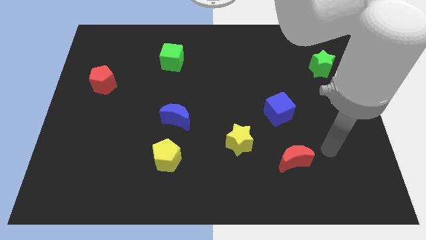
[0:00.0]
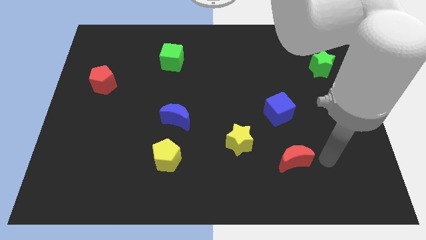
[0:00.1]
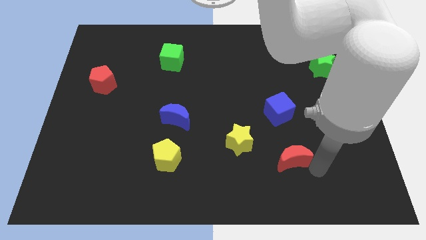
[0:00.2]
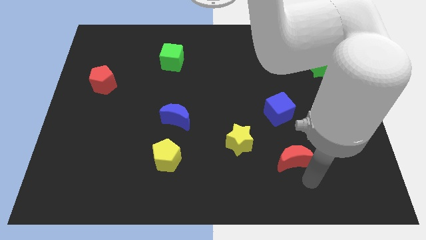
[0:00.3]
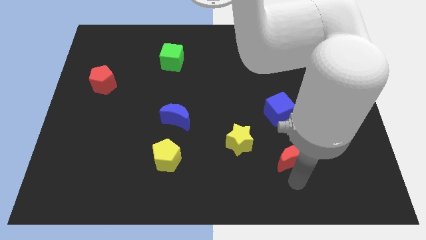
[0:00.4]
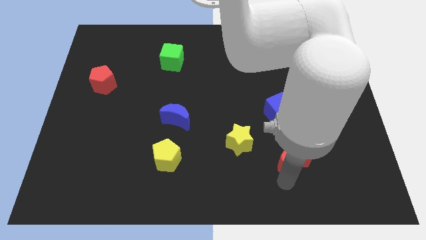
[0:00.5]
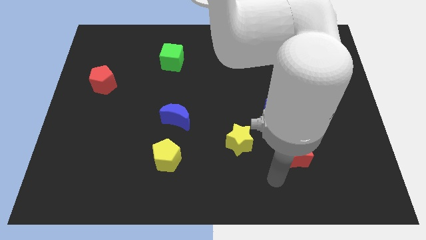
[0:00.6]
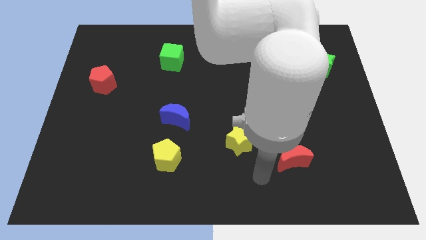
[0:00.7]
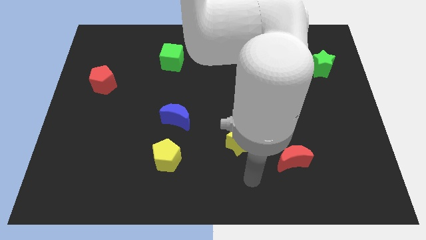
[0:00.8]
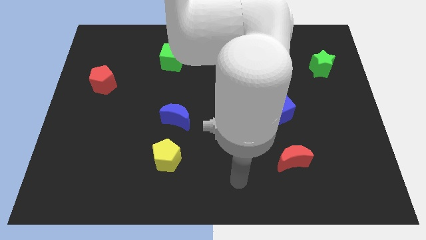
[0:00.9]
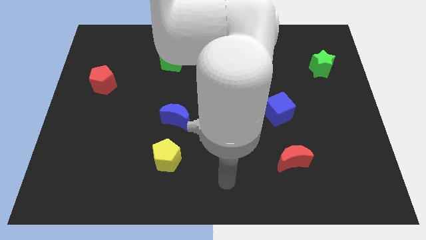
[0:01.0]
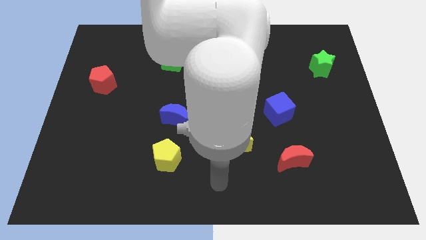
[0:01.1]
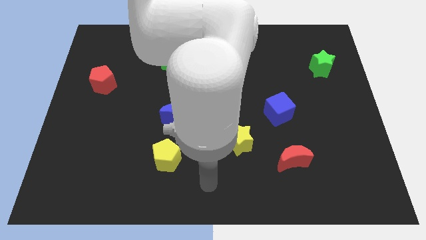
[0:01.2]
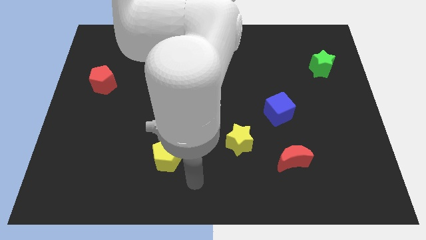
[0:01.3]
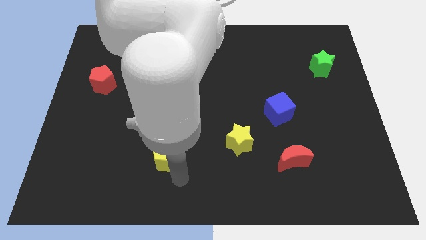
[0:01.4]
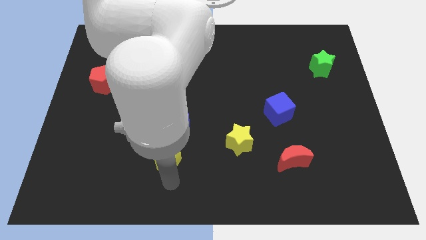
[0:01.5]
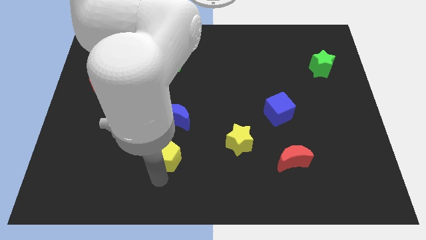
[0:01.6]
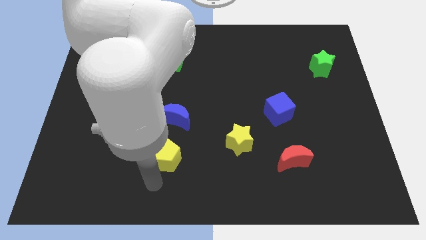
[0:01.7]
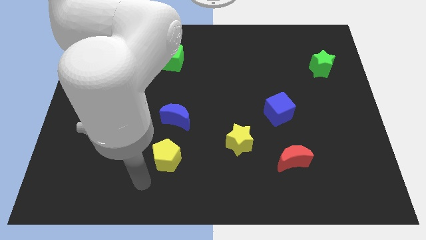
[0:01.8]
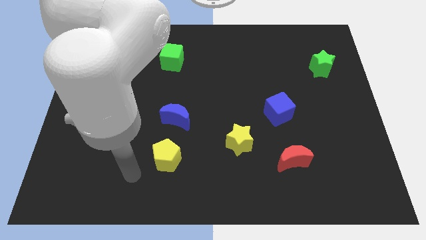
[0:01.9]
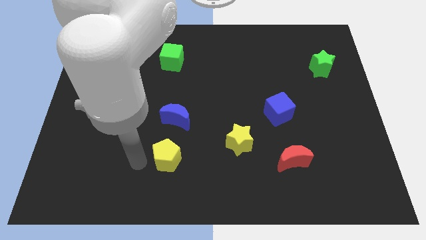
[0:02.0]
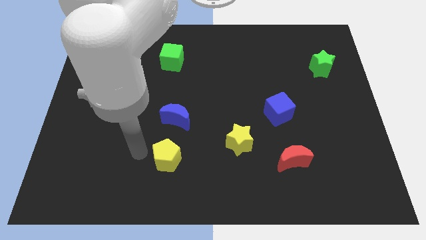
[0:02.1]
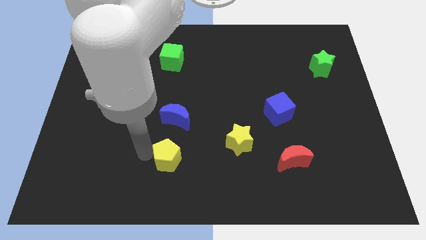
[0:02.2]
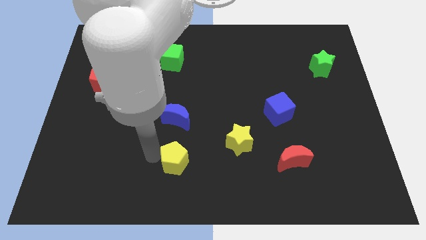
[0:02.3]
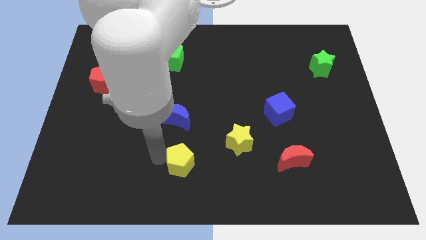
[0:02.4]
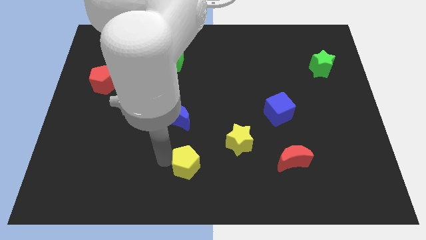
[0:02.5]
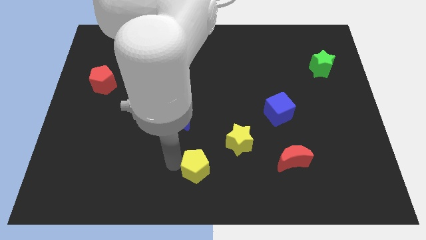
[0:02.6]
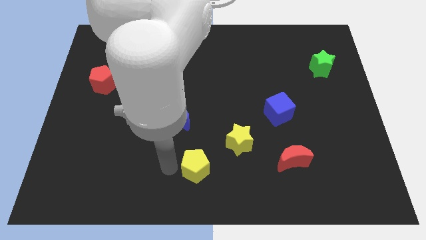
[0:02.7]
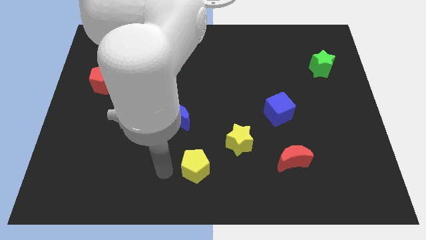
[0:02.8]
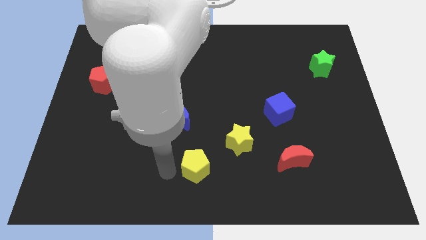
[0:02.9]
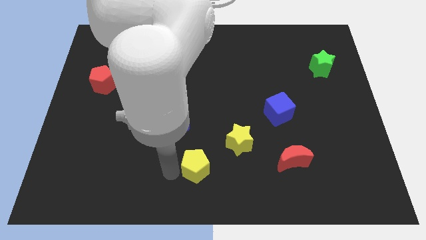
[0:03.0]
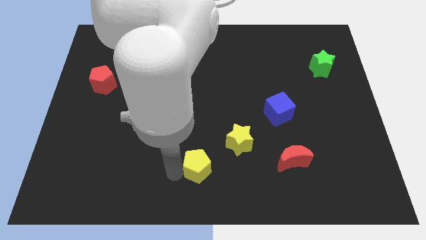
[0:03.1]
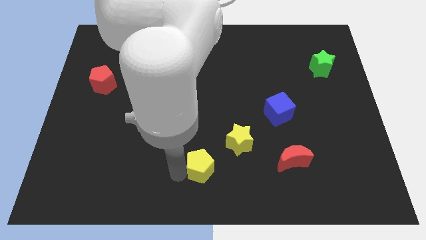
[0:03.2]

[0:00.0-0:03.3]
slide the yellow pentagon right a bit

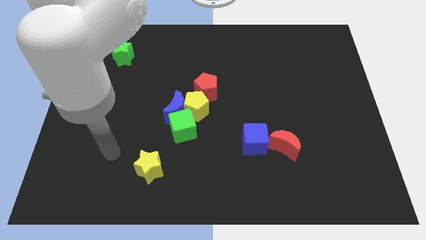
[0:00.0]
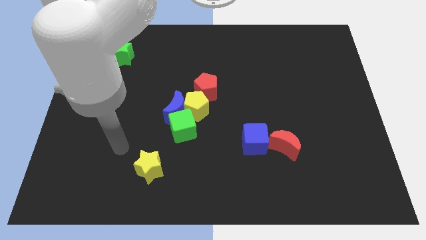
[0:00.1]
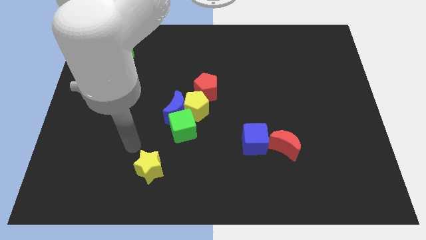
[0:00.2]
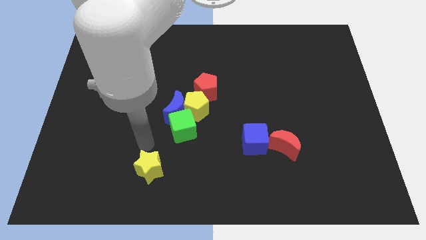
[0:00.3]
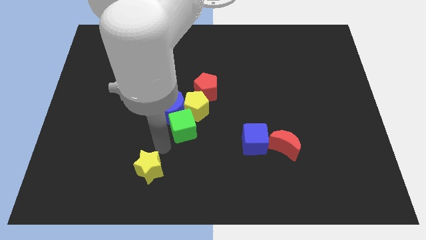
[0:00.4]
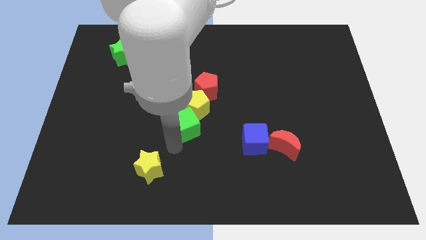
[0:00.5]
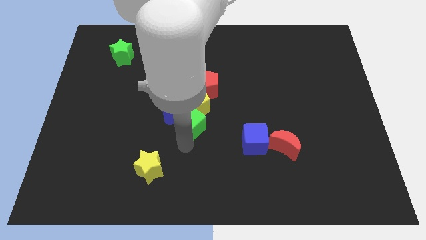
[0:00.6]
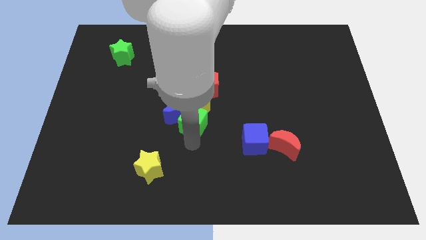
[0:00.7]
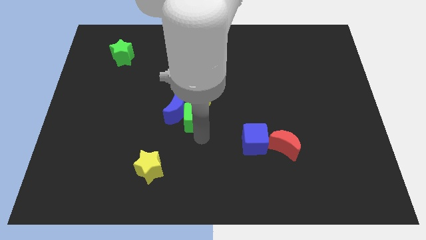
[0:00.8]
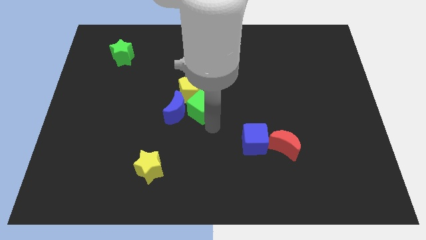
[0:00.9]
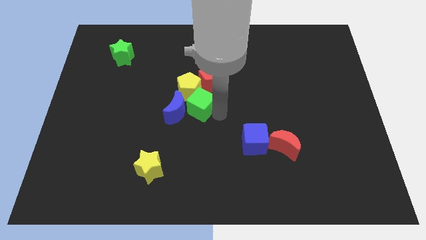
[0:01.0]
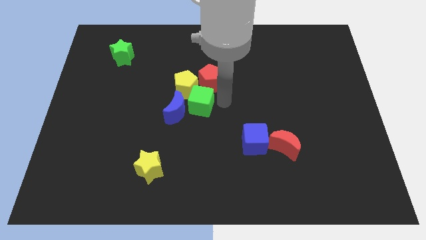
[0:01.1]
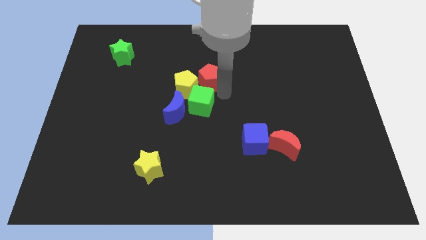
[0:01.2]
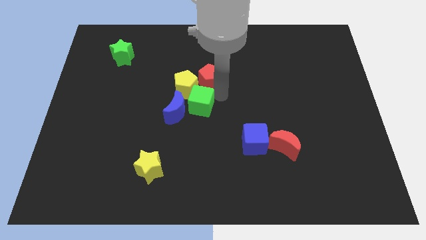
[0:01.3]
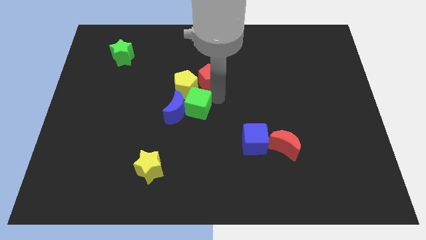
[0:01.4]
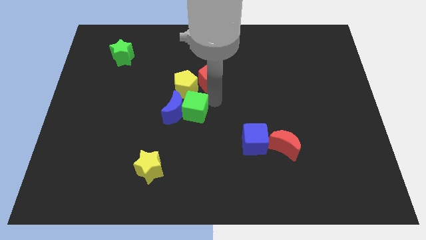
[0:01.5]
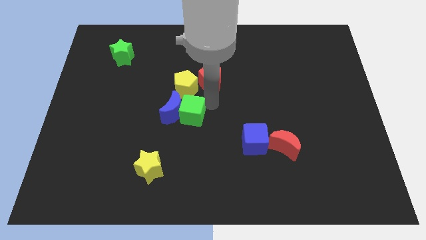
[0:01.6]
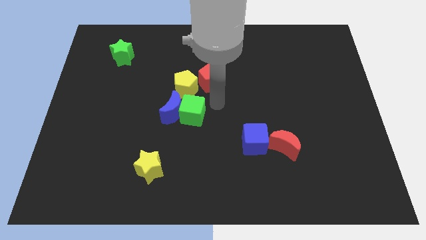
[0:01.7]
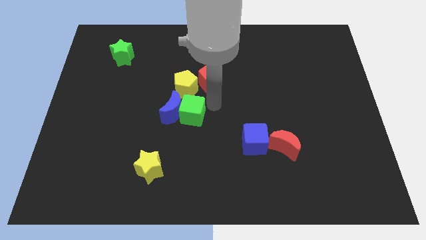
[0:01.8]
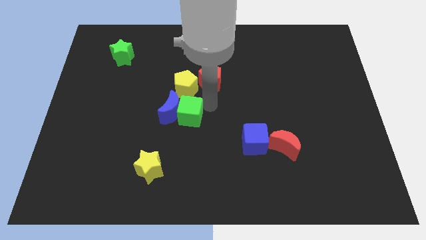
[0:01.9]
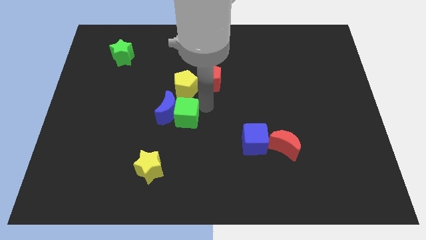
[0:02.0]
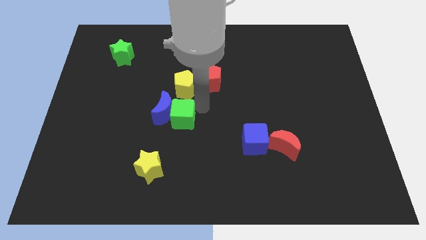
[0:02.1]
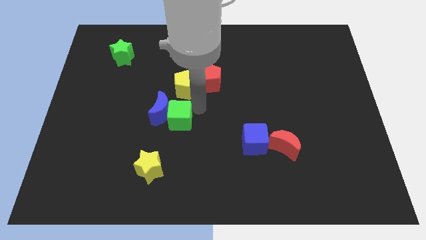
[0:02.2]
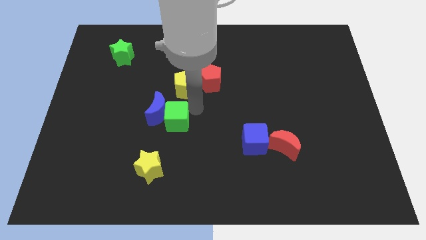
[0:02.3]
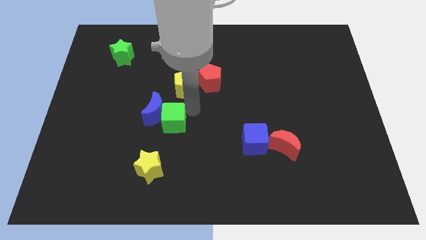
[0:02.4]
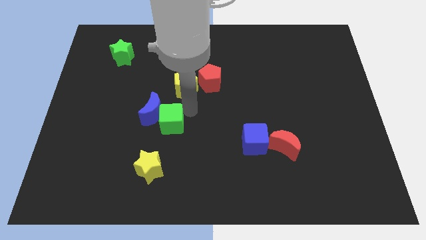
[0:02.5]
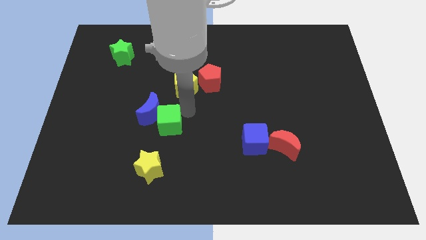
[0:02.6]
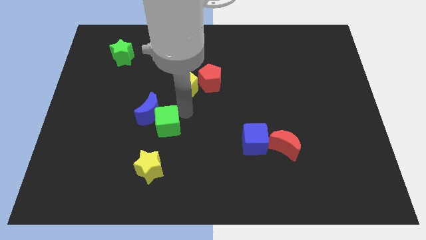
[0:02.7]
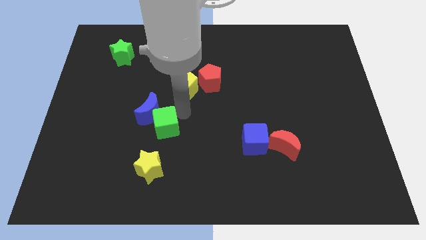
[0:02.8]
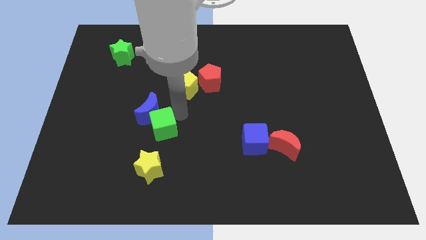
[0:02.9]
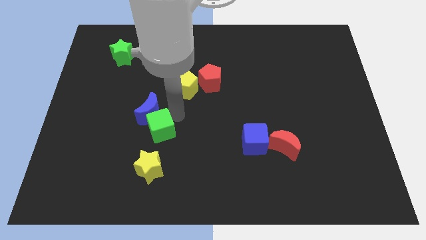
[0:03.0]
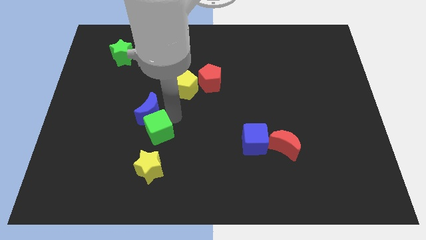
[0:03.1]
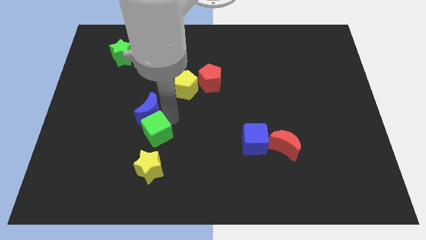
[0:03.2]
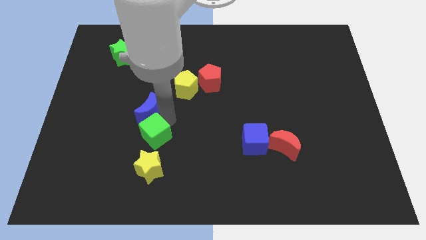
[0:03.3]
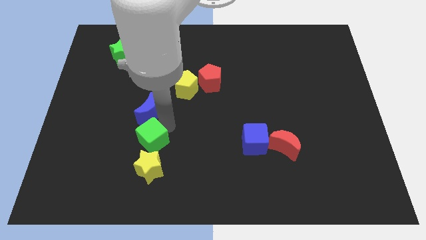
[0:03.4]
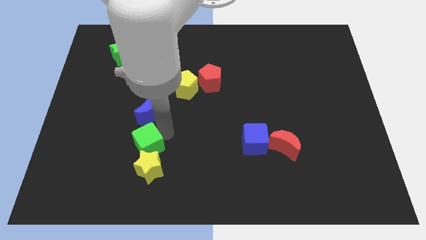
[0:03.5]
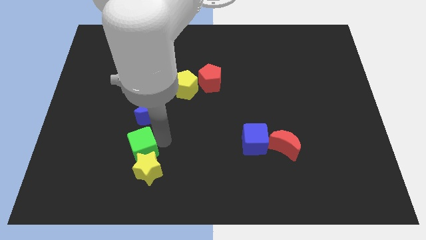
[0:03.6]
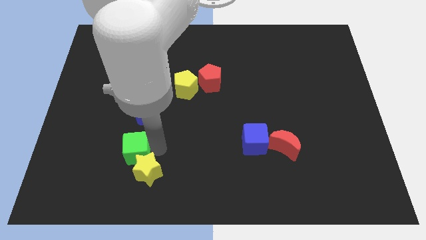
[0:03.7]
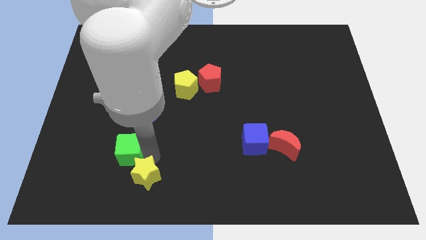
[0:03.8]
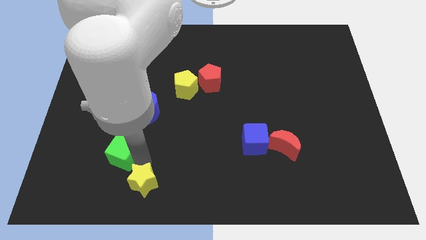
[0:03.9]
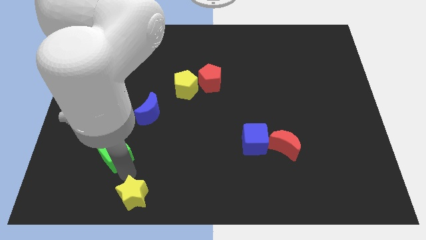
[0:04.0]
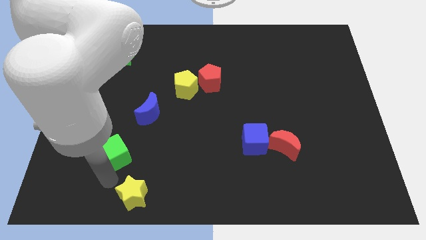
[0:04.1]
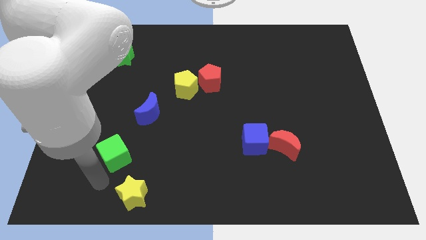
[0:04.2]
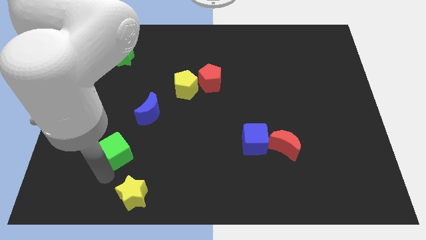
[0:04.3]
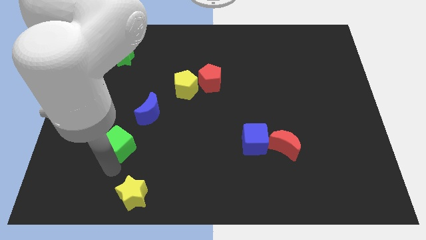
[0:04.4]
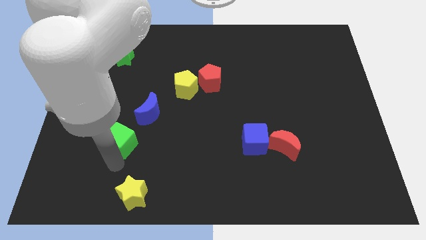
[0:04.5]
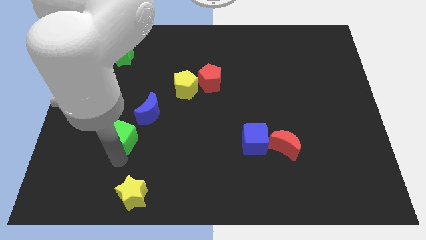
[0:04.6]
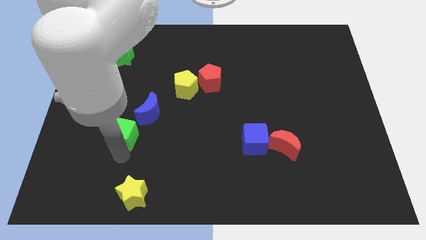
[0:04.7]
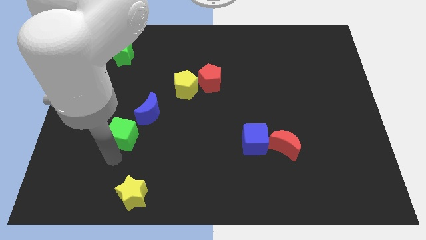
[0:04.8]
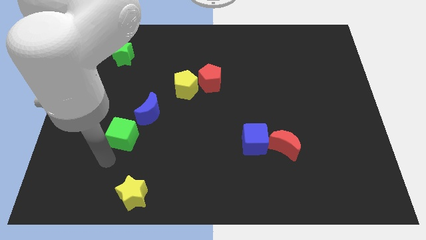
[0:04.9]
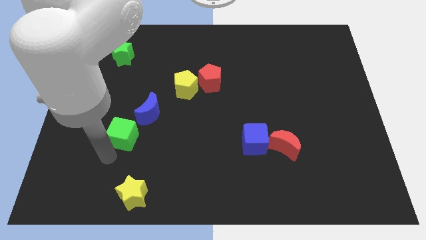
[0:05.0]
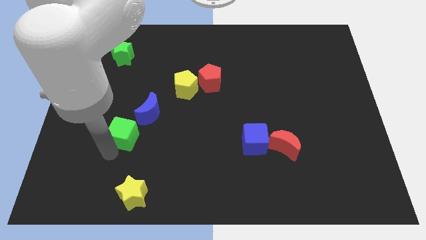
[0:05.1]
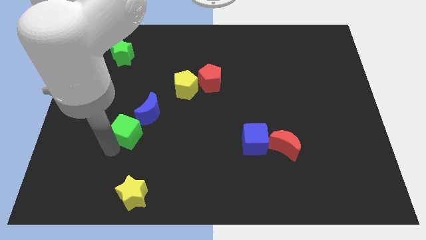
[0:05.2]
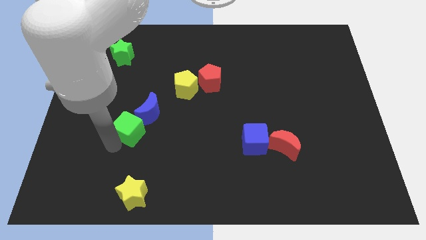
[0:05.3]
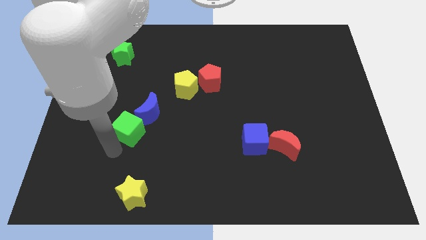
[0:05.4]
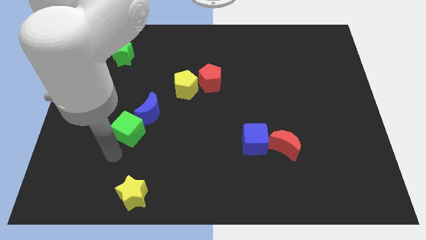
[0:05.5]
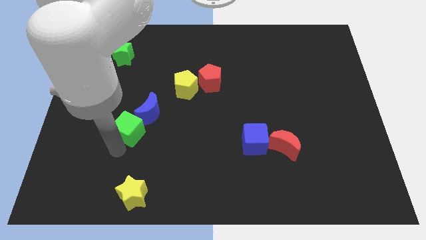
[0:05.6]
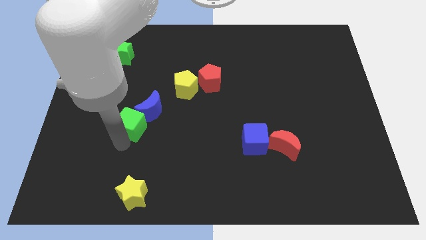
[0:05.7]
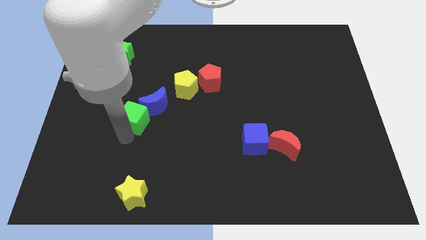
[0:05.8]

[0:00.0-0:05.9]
slightly slide the green cube diagonally upwards and to the left
